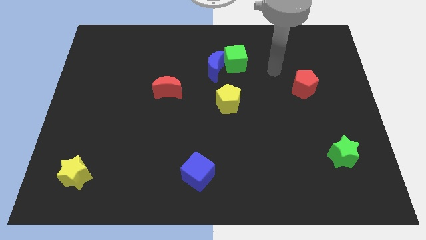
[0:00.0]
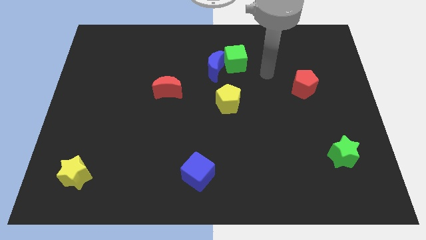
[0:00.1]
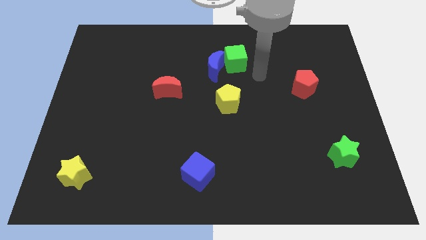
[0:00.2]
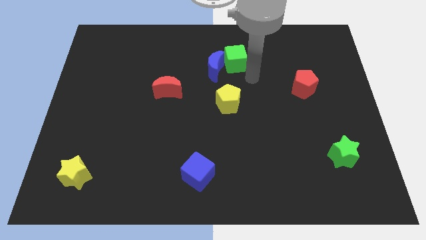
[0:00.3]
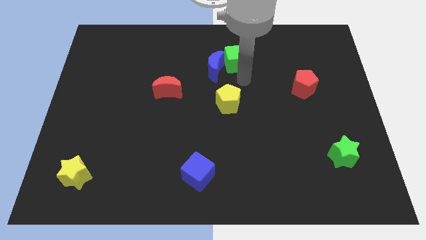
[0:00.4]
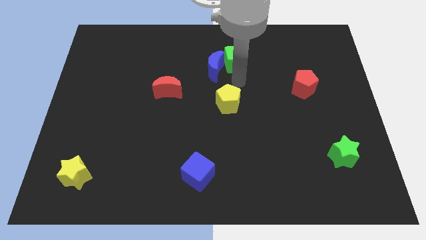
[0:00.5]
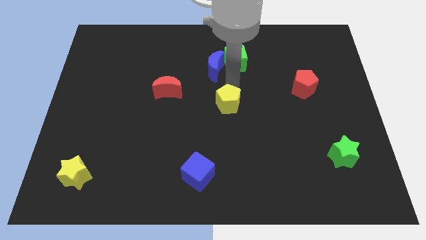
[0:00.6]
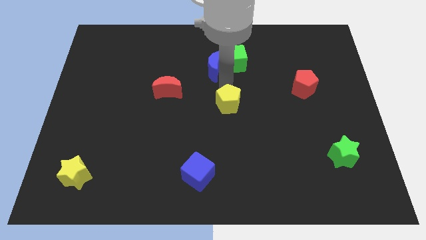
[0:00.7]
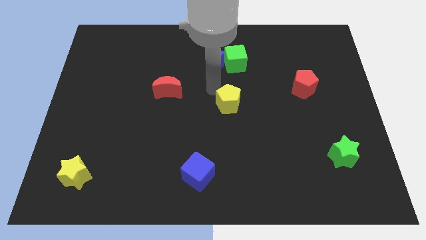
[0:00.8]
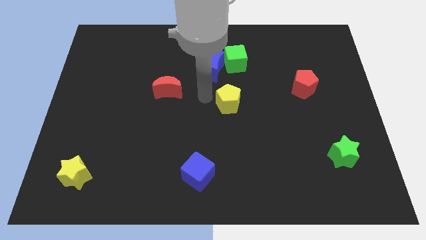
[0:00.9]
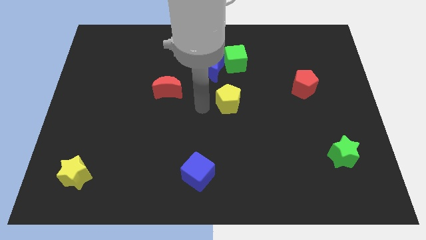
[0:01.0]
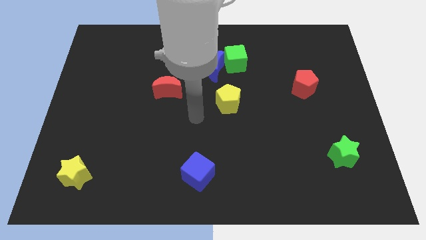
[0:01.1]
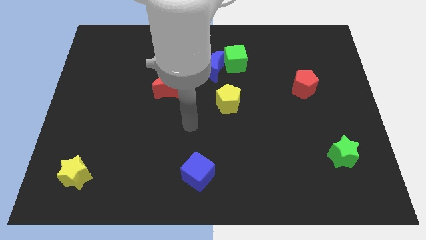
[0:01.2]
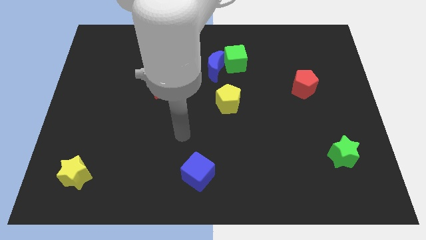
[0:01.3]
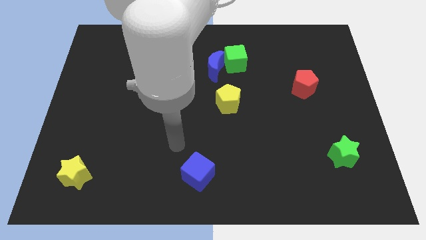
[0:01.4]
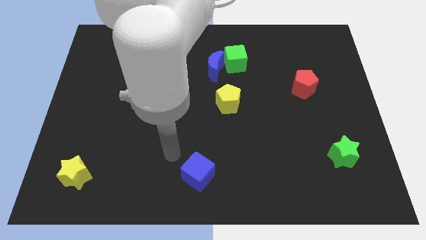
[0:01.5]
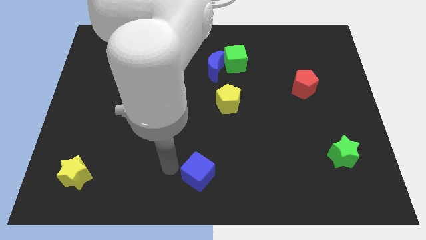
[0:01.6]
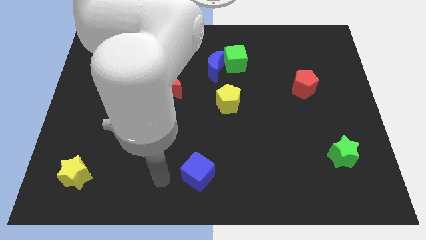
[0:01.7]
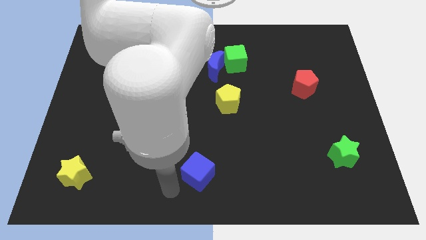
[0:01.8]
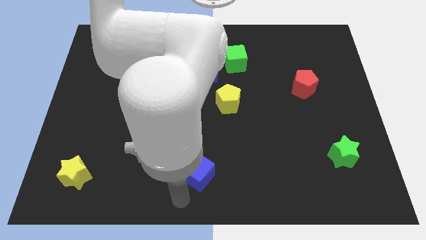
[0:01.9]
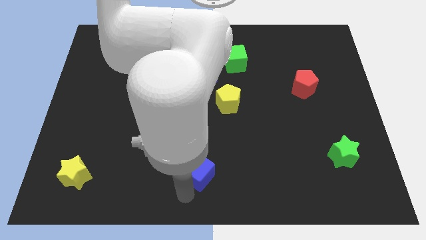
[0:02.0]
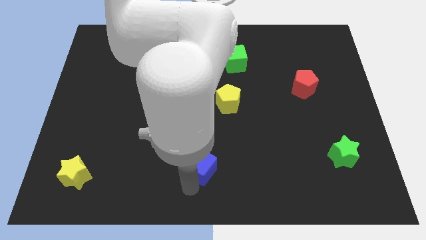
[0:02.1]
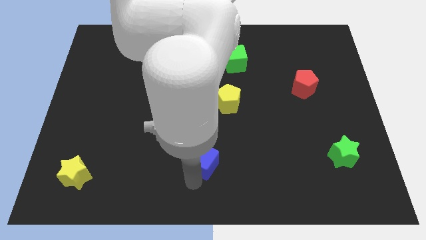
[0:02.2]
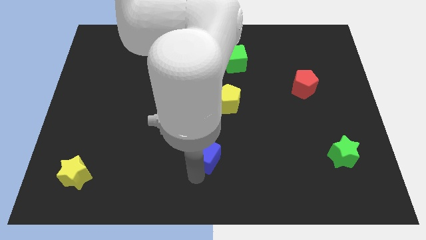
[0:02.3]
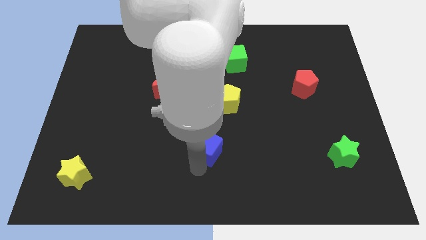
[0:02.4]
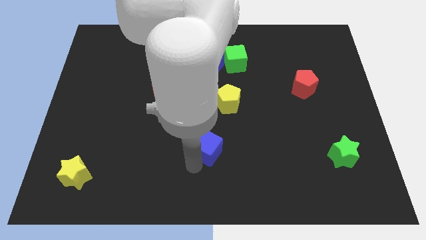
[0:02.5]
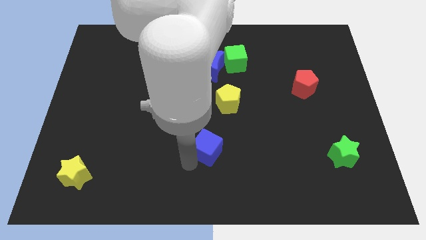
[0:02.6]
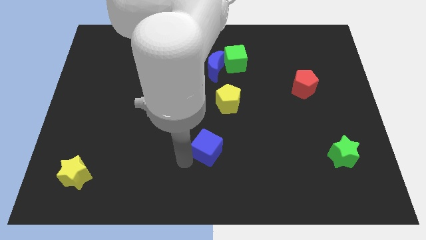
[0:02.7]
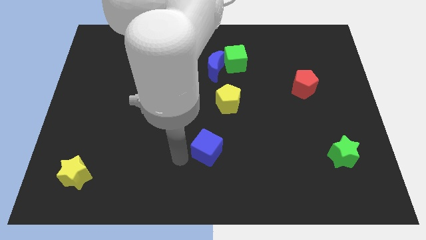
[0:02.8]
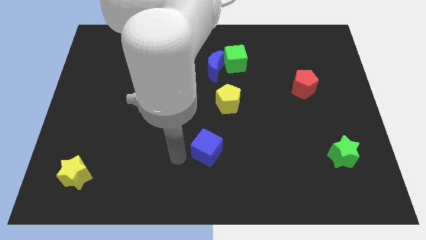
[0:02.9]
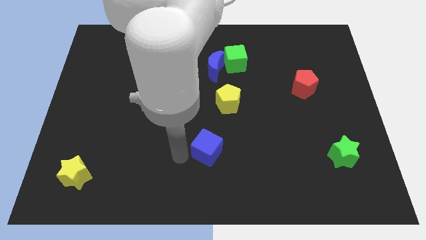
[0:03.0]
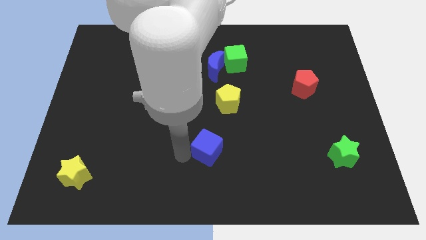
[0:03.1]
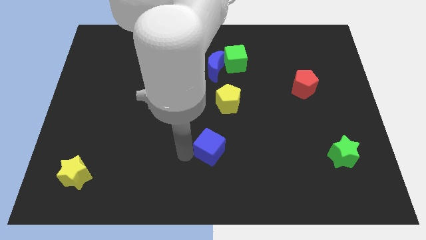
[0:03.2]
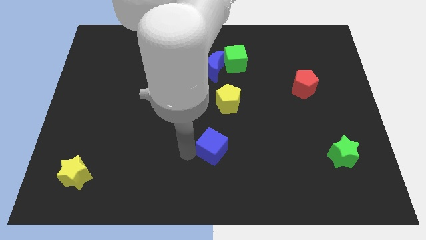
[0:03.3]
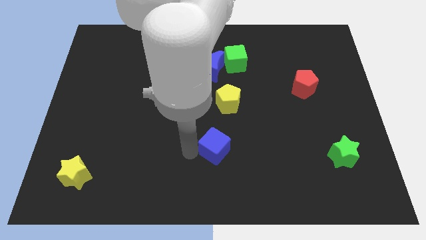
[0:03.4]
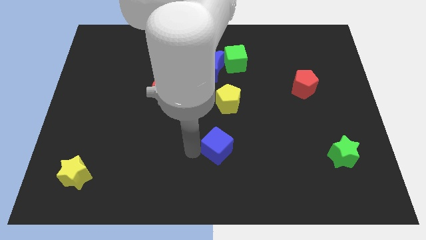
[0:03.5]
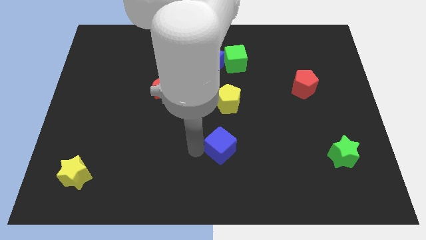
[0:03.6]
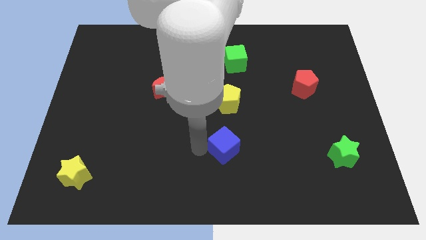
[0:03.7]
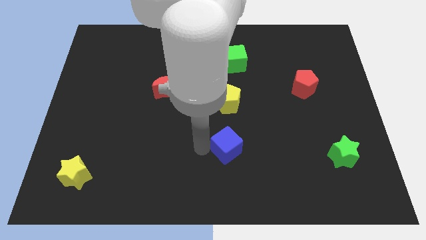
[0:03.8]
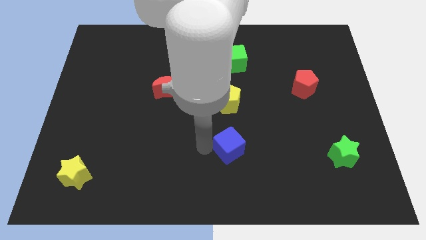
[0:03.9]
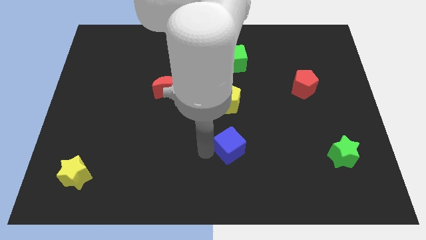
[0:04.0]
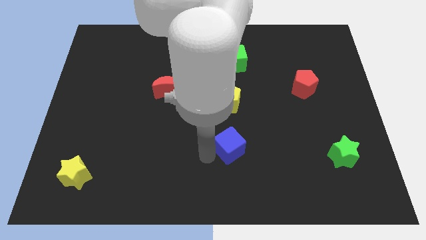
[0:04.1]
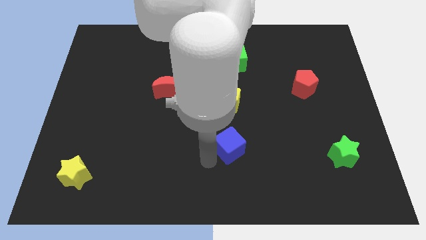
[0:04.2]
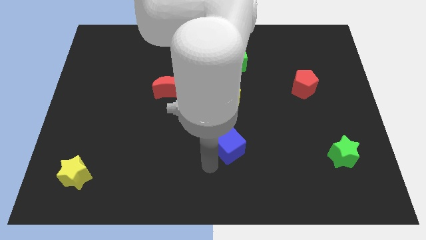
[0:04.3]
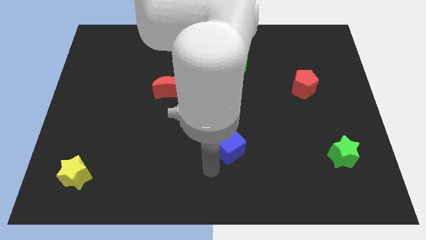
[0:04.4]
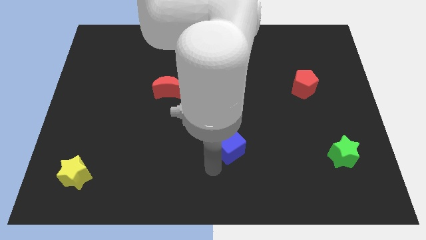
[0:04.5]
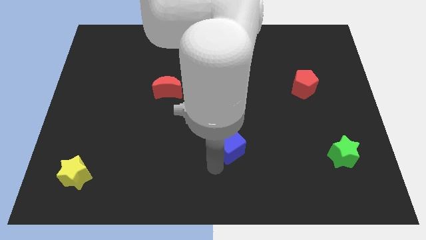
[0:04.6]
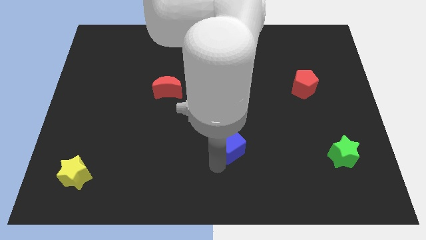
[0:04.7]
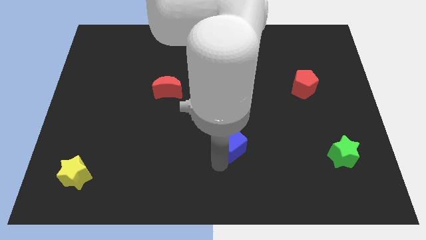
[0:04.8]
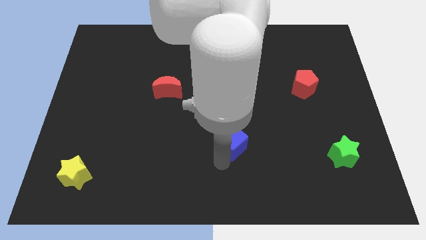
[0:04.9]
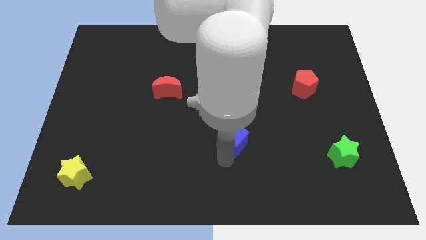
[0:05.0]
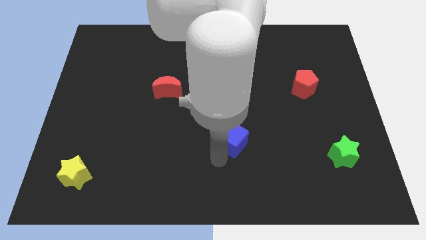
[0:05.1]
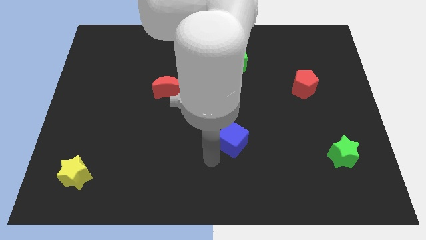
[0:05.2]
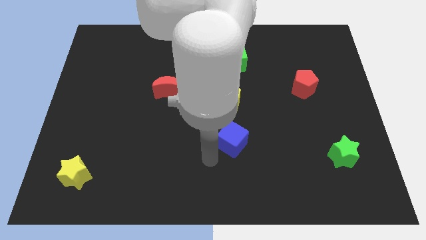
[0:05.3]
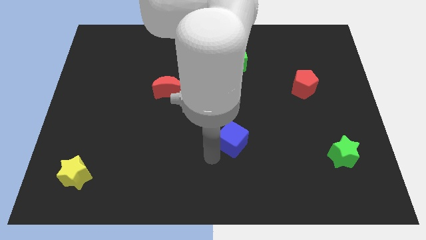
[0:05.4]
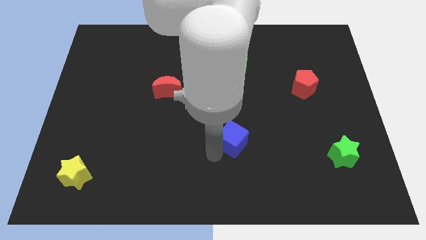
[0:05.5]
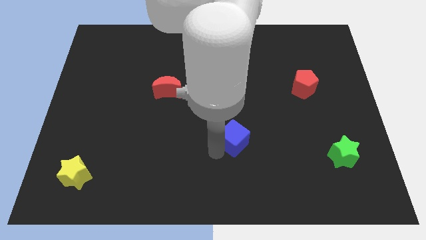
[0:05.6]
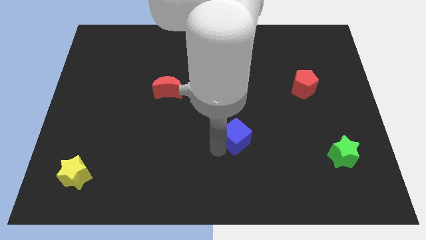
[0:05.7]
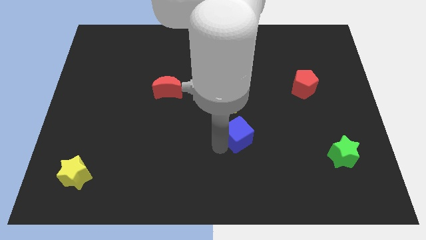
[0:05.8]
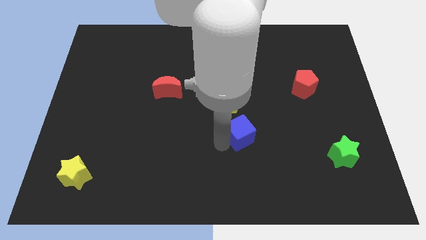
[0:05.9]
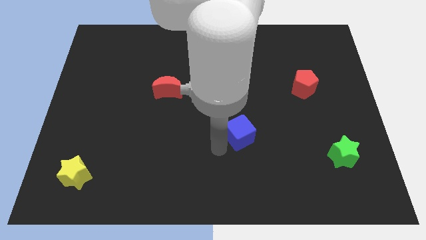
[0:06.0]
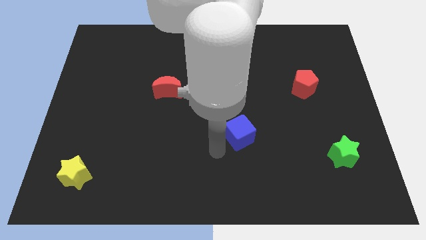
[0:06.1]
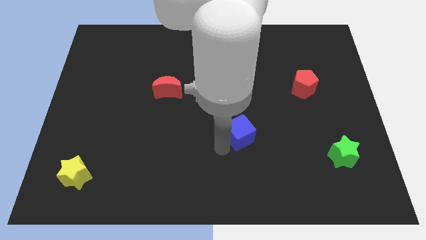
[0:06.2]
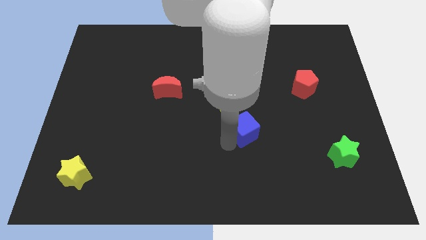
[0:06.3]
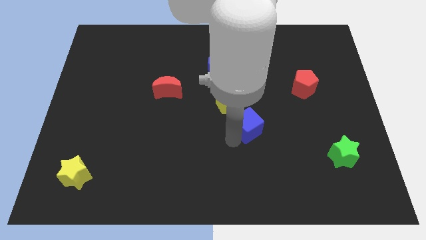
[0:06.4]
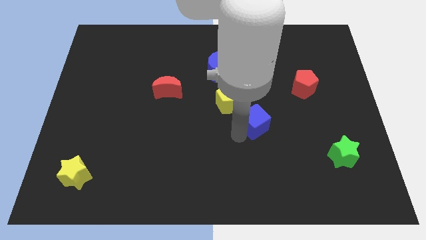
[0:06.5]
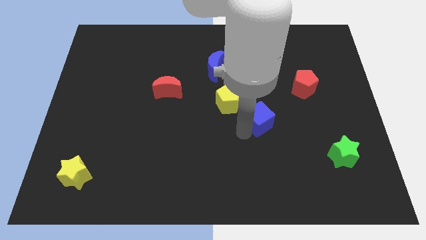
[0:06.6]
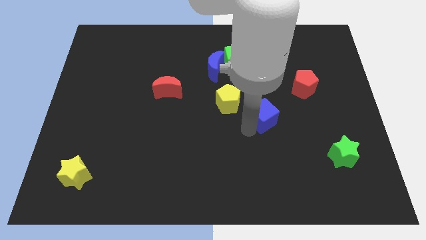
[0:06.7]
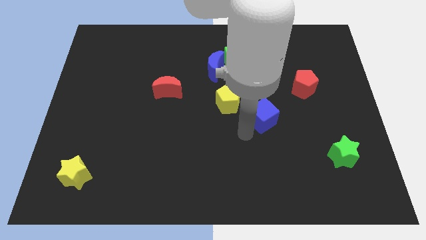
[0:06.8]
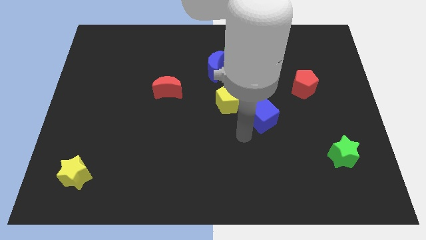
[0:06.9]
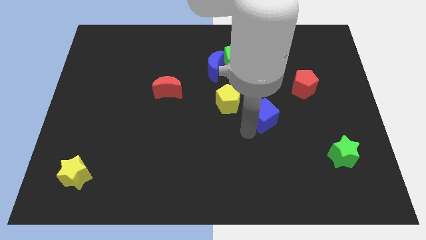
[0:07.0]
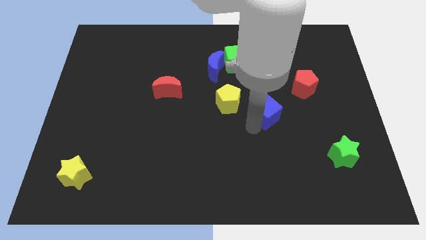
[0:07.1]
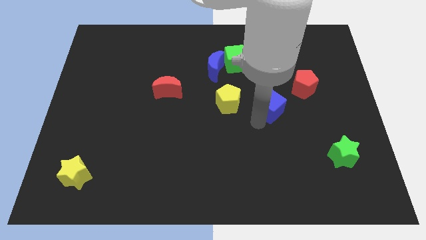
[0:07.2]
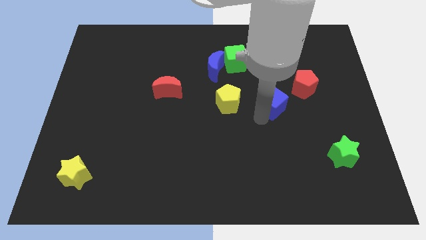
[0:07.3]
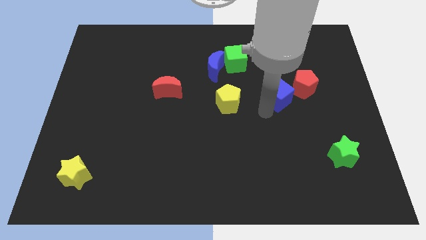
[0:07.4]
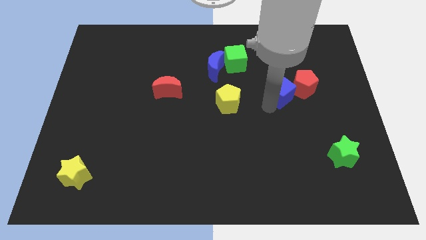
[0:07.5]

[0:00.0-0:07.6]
move the blue cube close to the red pentagon
